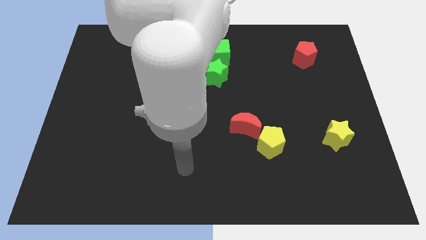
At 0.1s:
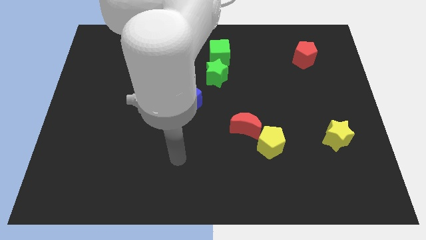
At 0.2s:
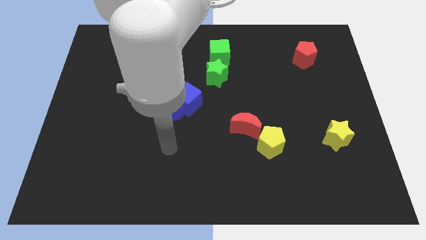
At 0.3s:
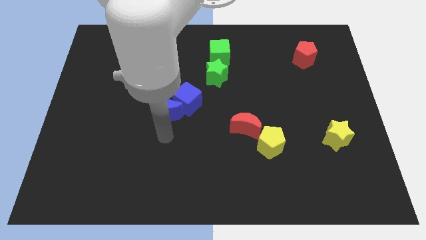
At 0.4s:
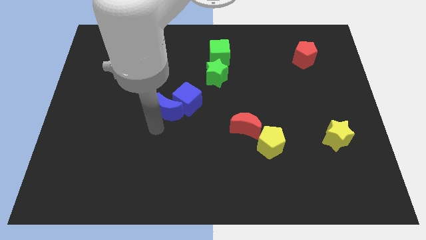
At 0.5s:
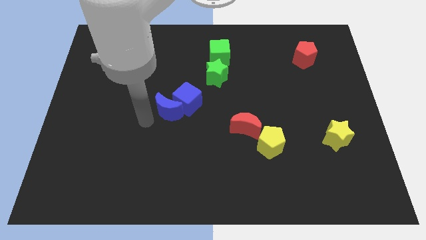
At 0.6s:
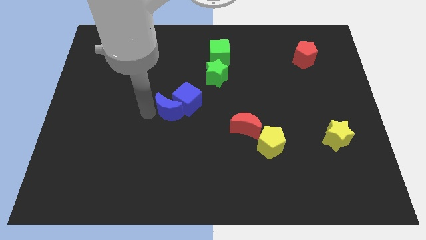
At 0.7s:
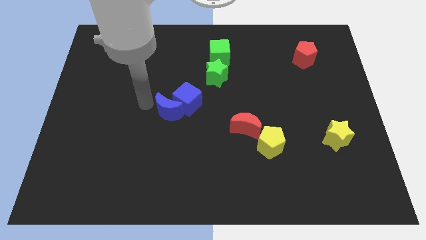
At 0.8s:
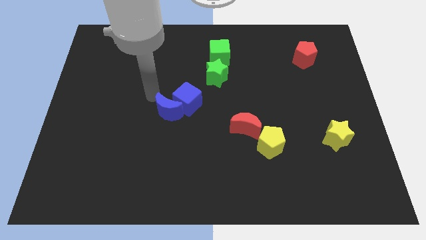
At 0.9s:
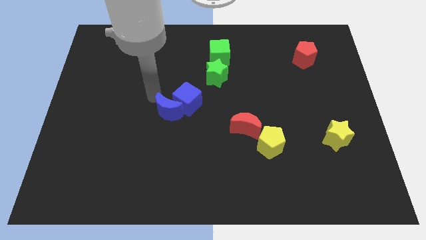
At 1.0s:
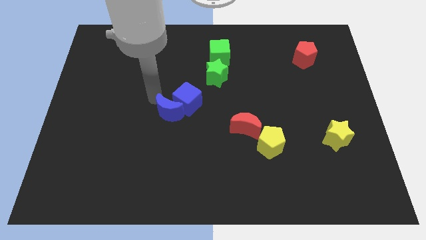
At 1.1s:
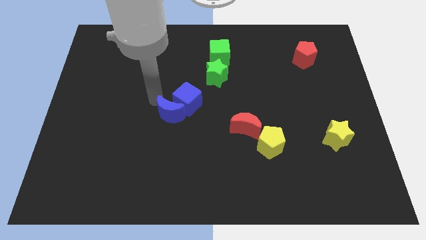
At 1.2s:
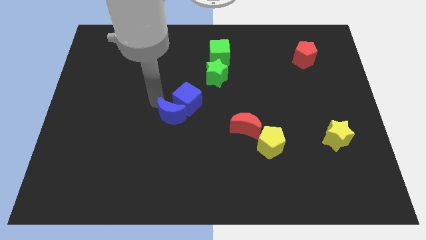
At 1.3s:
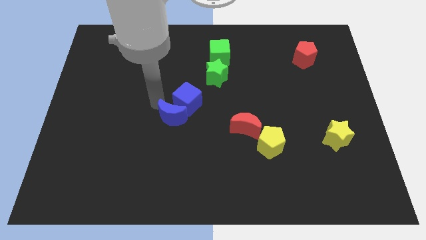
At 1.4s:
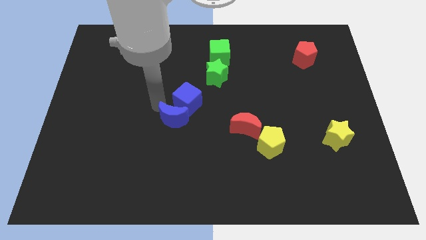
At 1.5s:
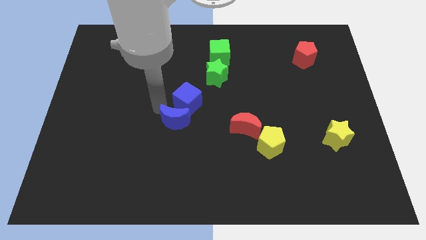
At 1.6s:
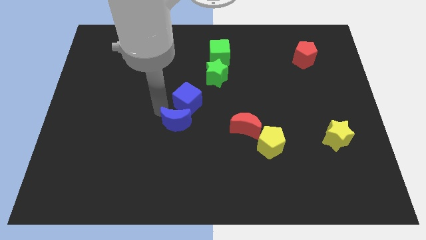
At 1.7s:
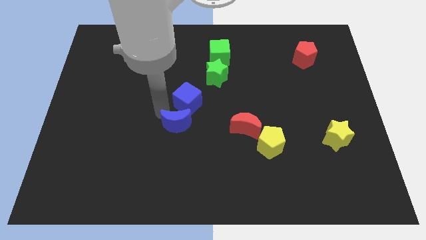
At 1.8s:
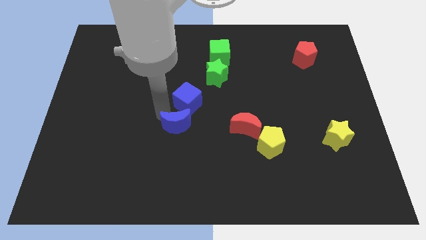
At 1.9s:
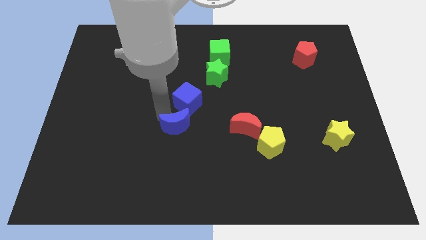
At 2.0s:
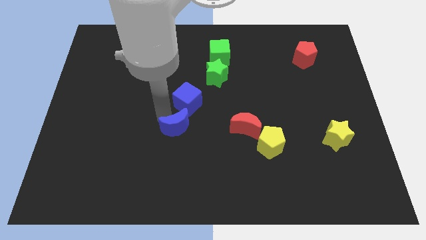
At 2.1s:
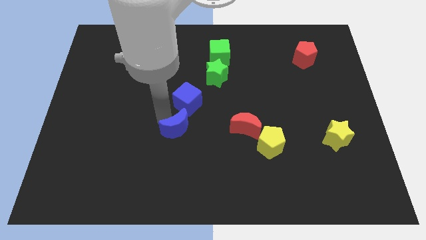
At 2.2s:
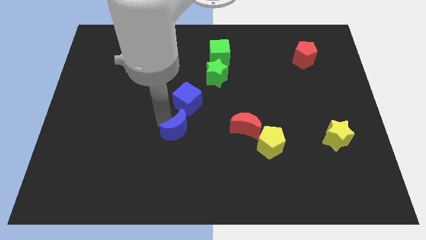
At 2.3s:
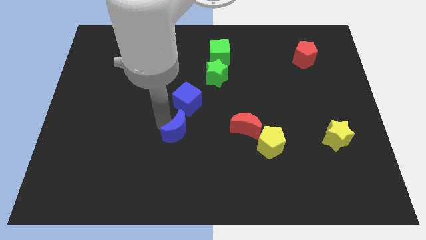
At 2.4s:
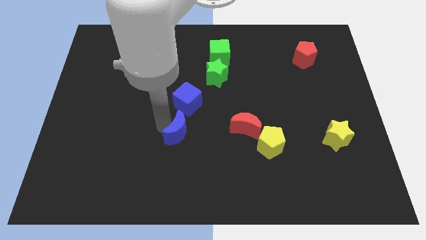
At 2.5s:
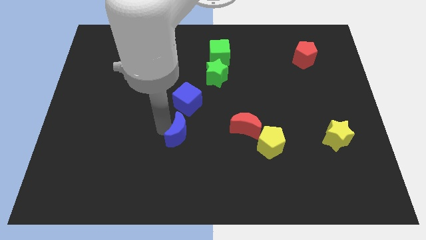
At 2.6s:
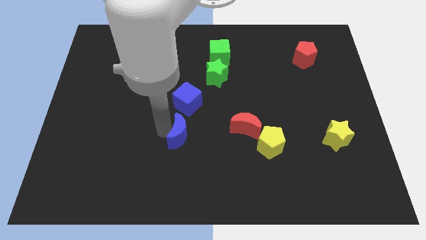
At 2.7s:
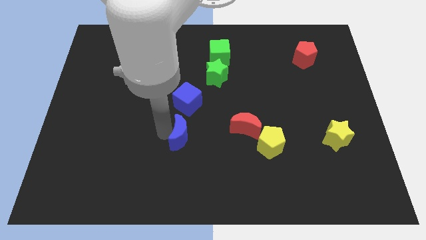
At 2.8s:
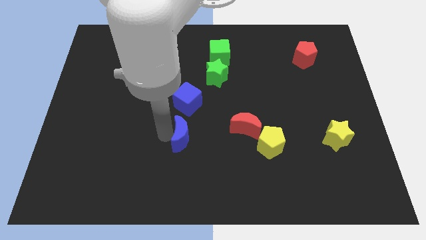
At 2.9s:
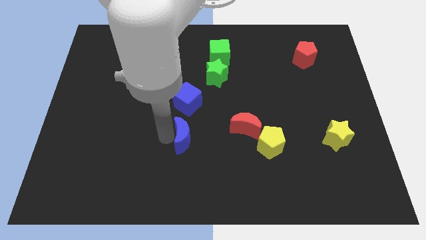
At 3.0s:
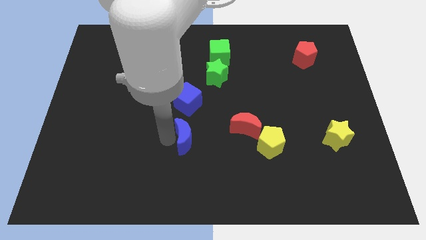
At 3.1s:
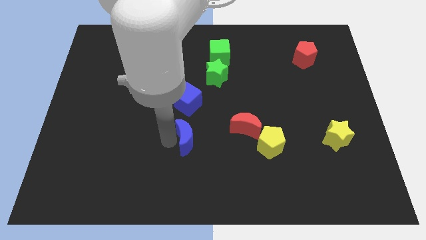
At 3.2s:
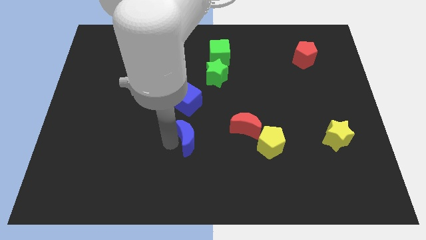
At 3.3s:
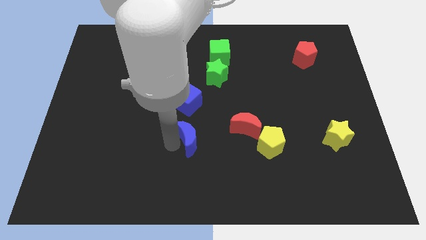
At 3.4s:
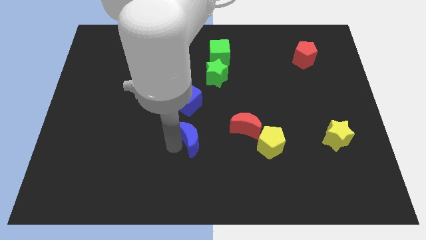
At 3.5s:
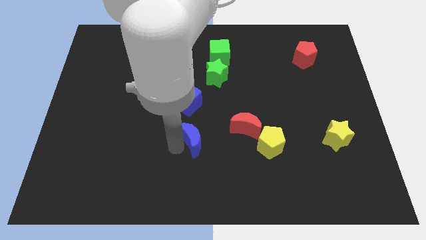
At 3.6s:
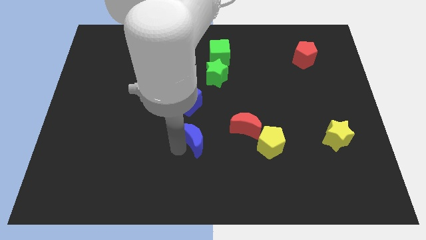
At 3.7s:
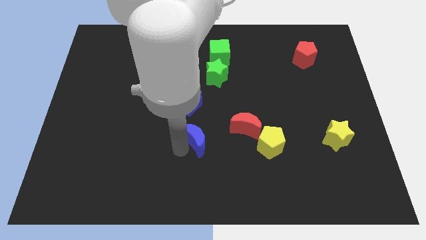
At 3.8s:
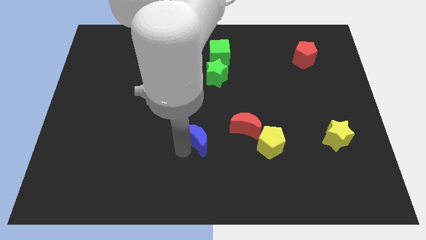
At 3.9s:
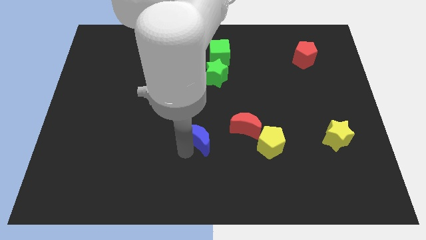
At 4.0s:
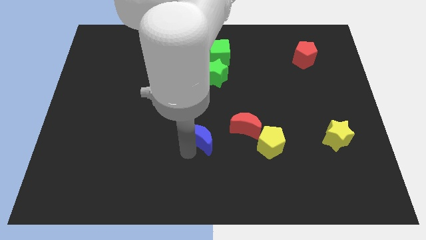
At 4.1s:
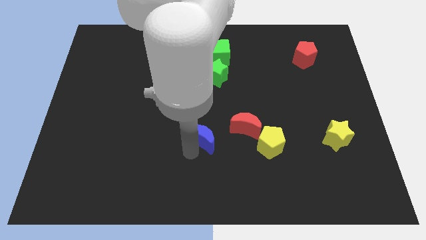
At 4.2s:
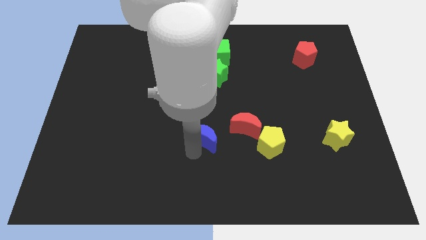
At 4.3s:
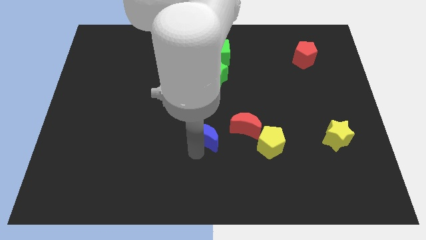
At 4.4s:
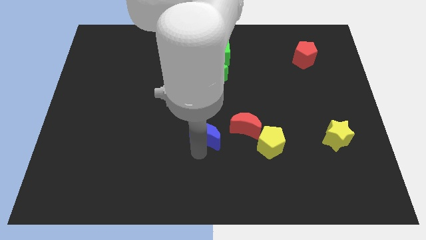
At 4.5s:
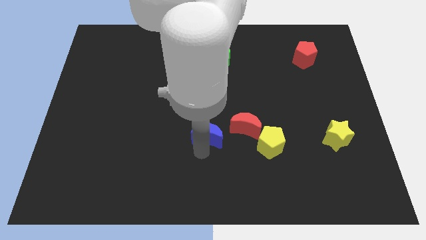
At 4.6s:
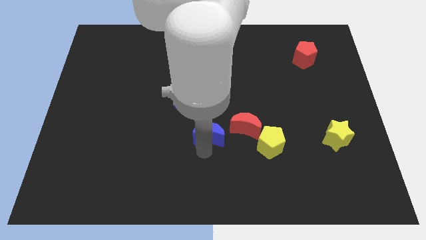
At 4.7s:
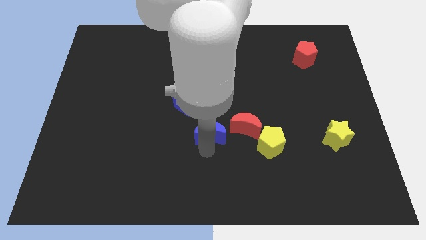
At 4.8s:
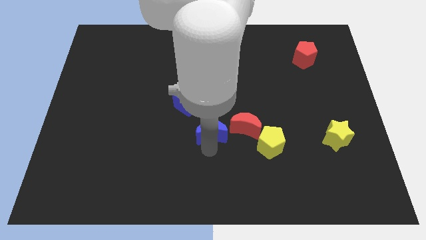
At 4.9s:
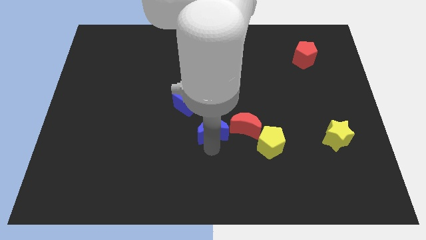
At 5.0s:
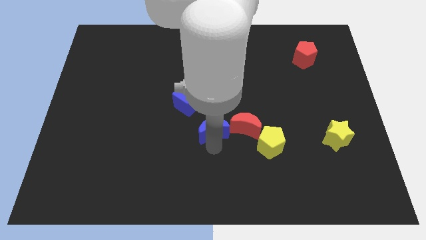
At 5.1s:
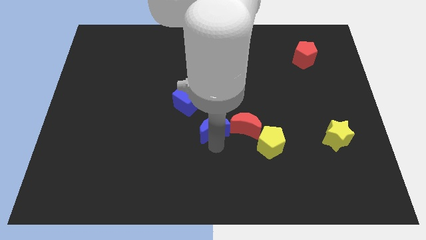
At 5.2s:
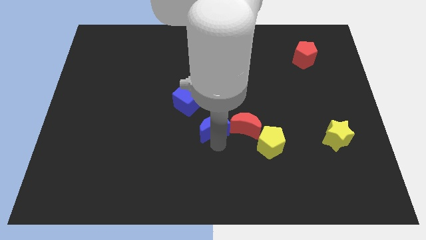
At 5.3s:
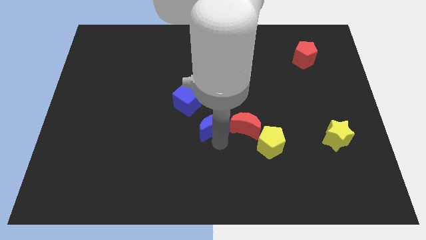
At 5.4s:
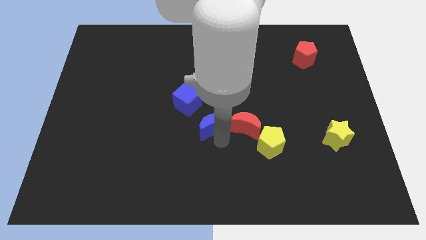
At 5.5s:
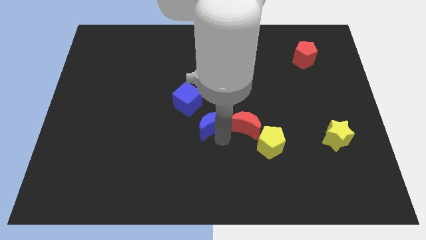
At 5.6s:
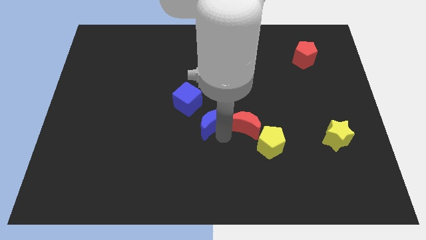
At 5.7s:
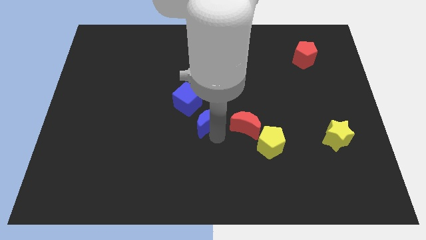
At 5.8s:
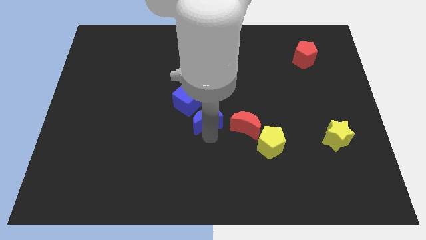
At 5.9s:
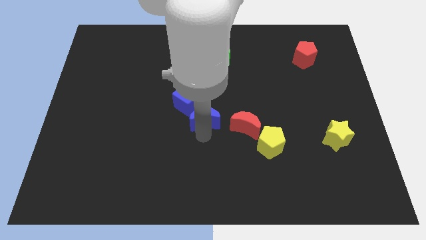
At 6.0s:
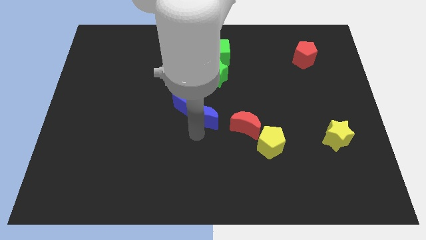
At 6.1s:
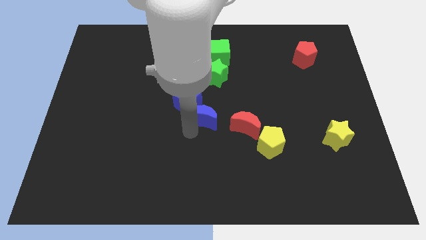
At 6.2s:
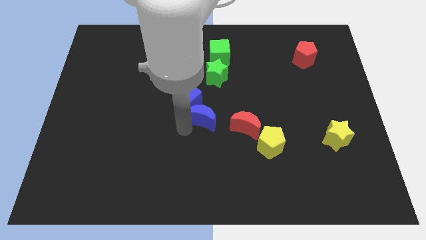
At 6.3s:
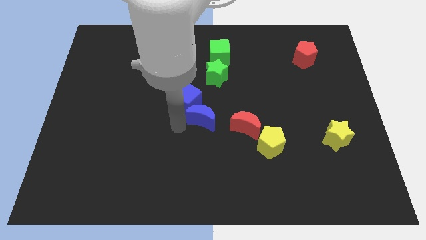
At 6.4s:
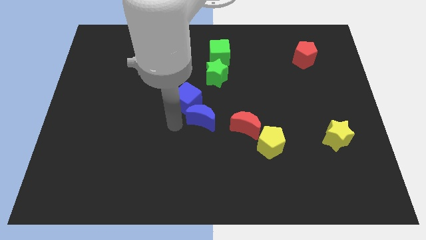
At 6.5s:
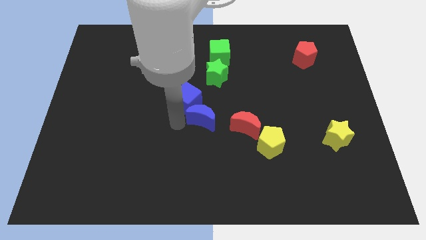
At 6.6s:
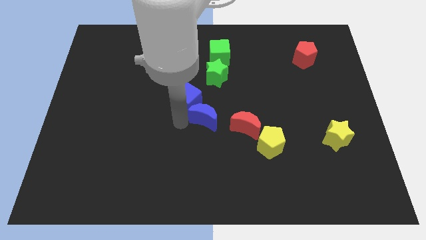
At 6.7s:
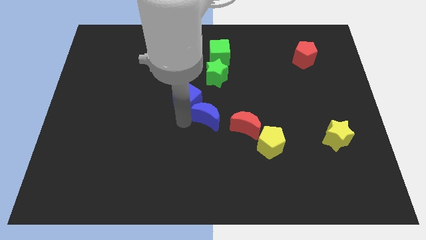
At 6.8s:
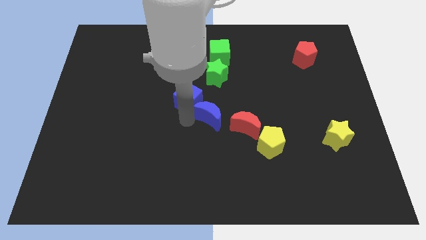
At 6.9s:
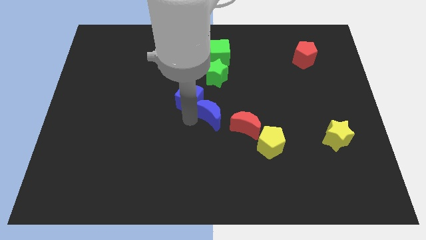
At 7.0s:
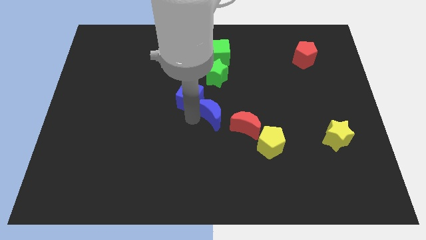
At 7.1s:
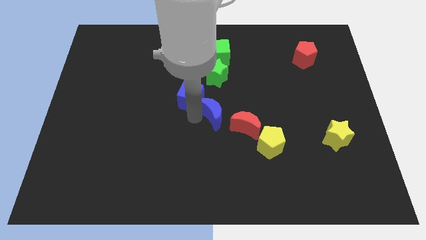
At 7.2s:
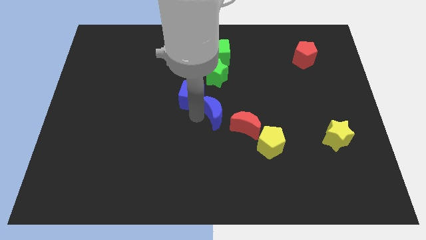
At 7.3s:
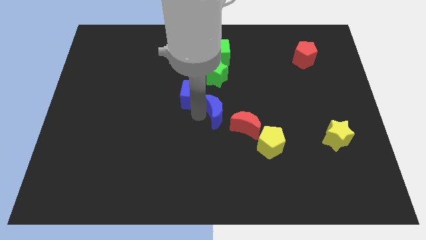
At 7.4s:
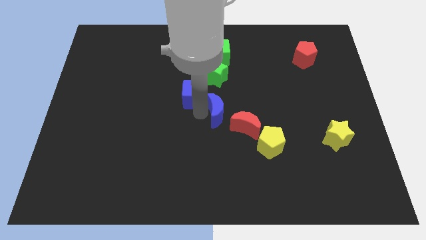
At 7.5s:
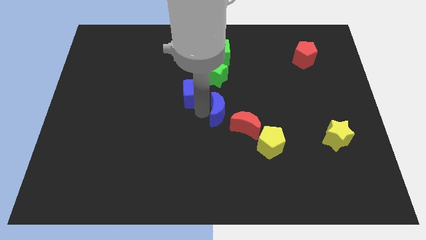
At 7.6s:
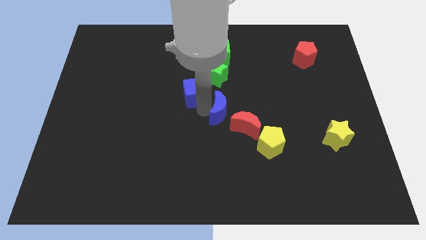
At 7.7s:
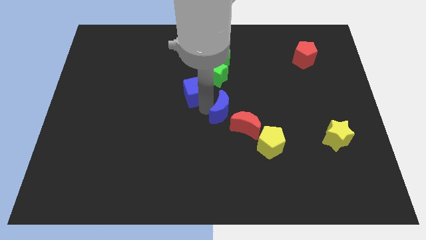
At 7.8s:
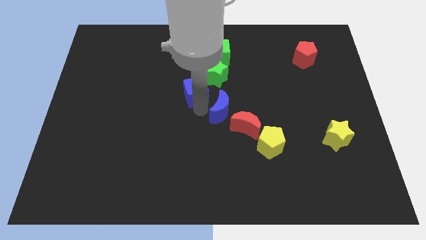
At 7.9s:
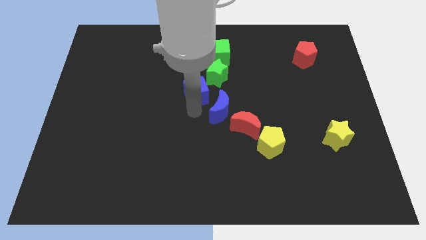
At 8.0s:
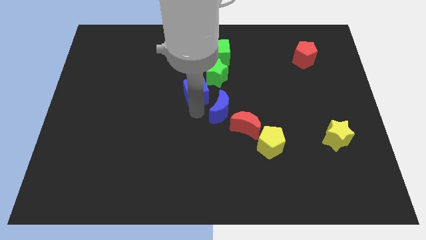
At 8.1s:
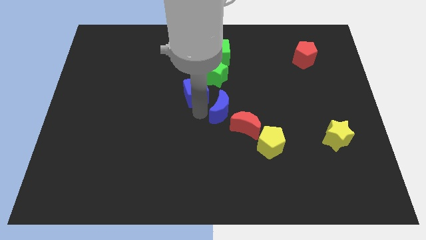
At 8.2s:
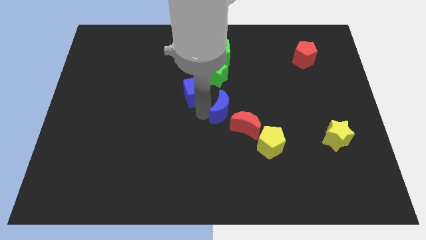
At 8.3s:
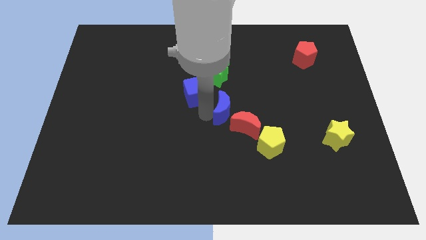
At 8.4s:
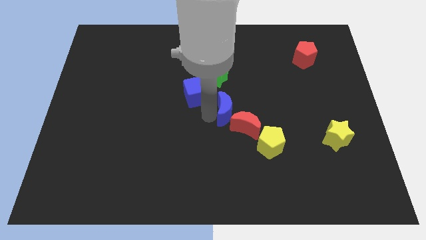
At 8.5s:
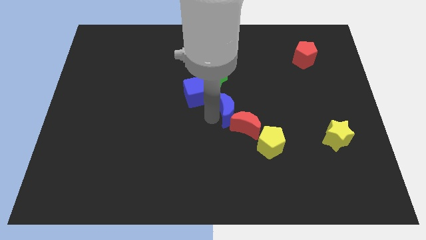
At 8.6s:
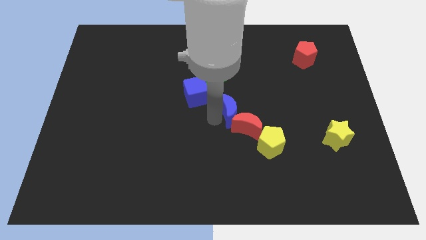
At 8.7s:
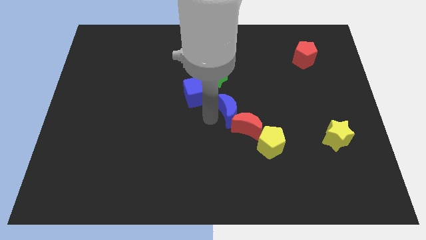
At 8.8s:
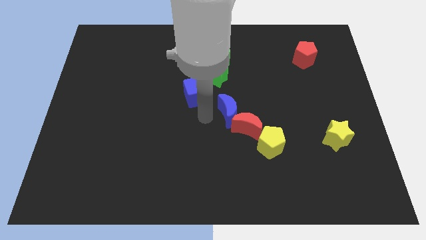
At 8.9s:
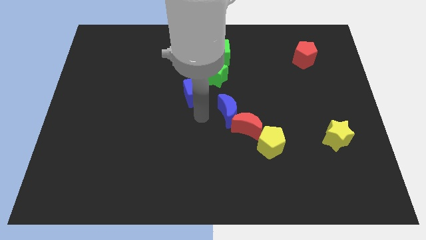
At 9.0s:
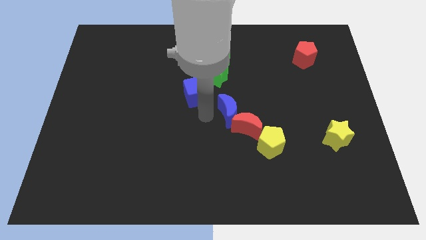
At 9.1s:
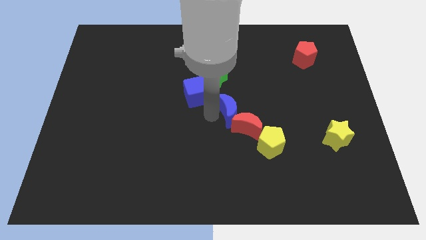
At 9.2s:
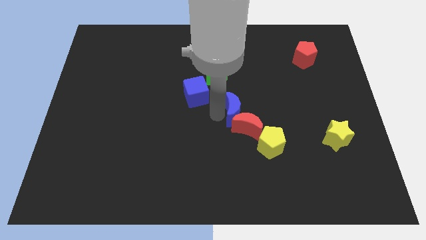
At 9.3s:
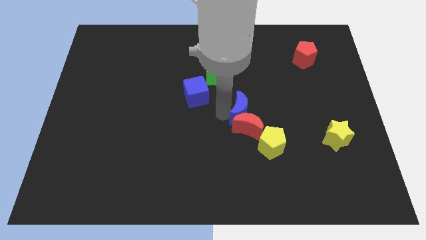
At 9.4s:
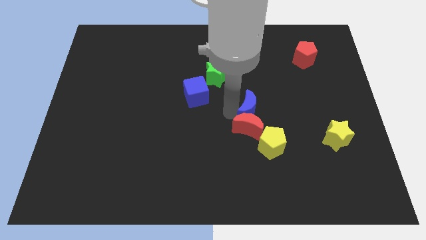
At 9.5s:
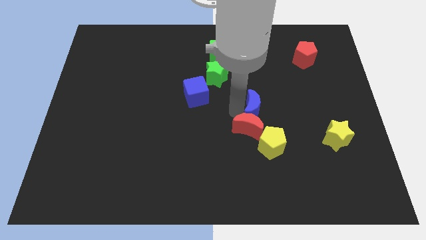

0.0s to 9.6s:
push the blue moon to the right
